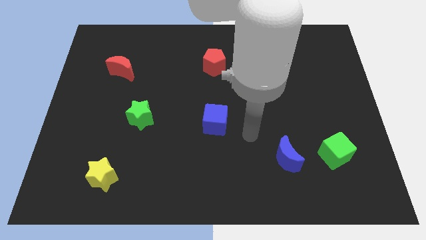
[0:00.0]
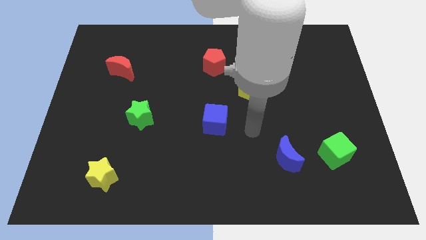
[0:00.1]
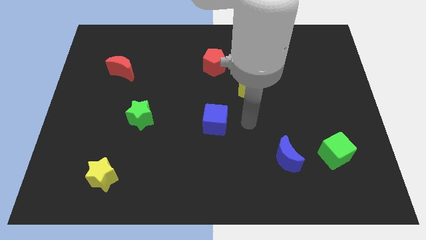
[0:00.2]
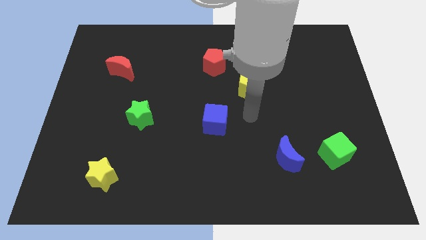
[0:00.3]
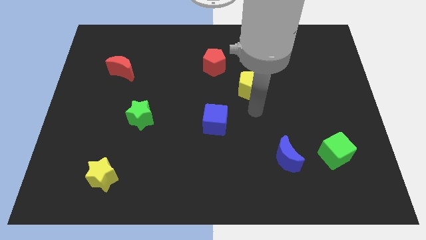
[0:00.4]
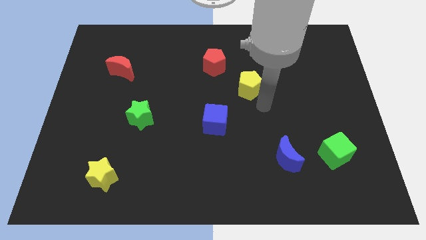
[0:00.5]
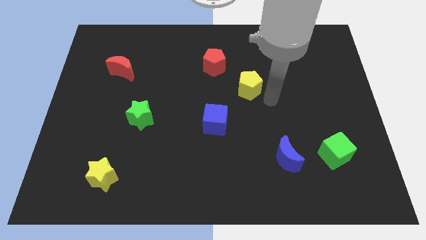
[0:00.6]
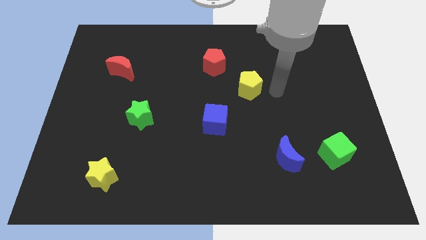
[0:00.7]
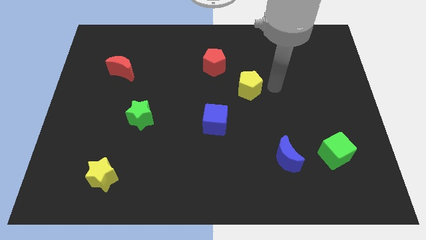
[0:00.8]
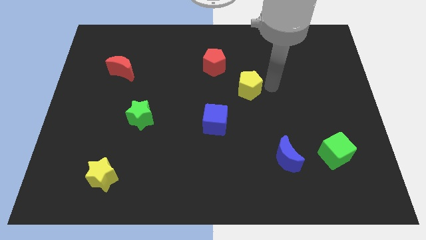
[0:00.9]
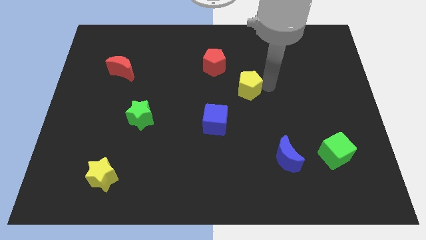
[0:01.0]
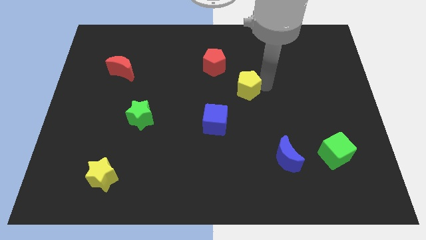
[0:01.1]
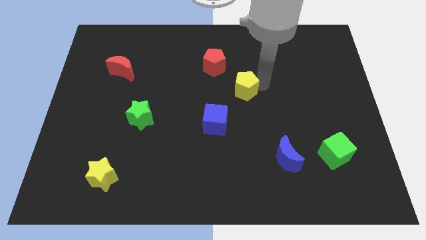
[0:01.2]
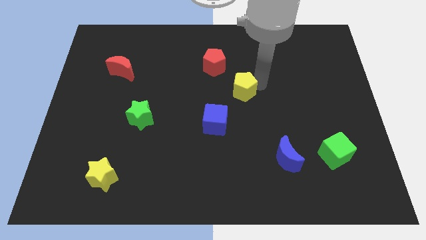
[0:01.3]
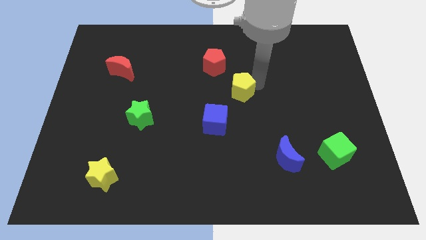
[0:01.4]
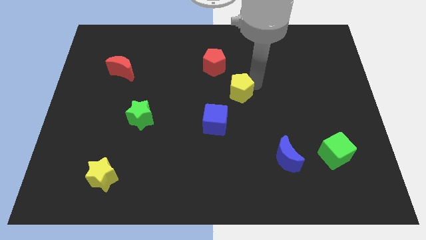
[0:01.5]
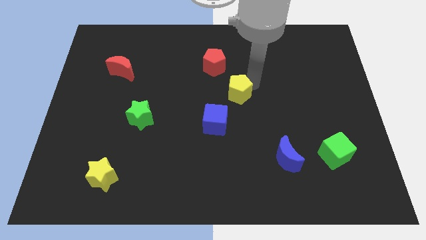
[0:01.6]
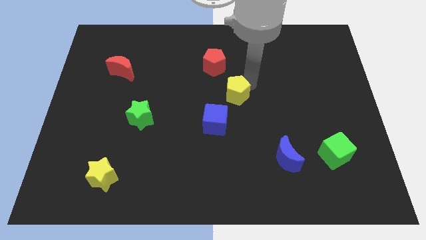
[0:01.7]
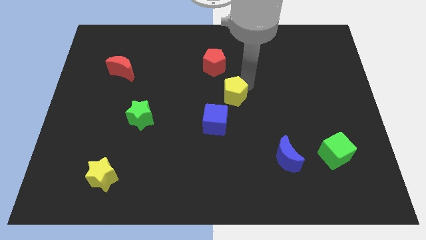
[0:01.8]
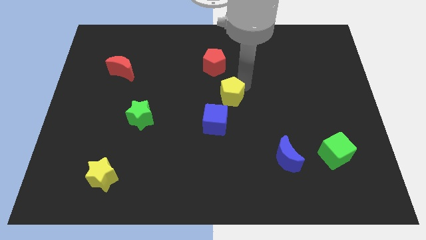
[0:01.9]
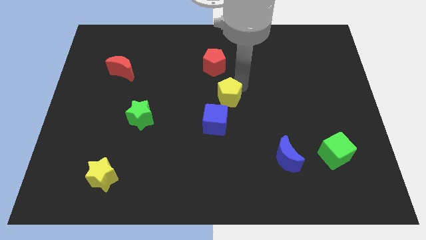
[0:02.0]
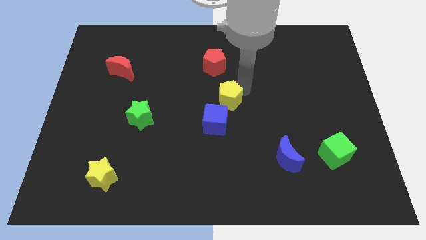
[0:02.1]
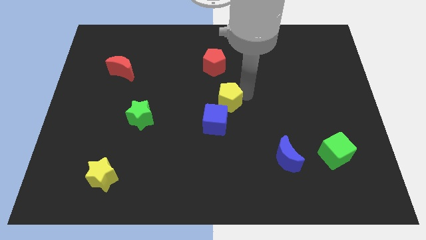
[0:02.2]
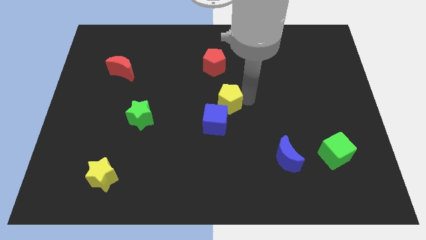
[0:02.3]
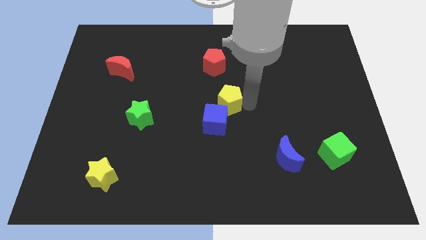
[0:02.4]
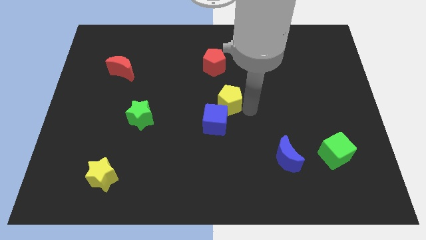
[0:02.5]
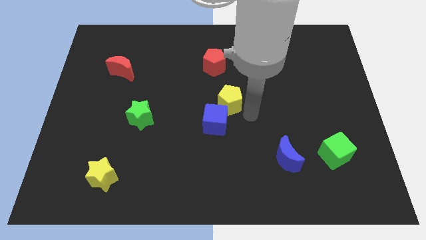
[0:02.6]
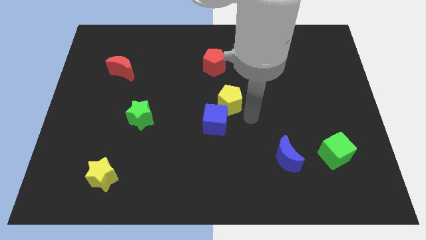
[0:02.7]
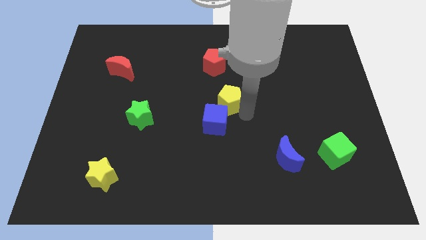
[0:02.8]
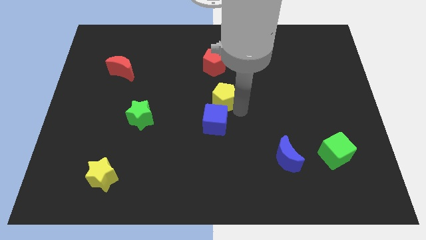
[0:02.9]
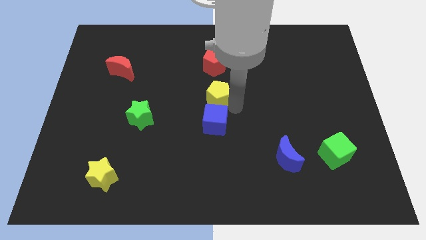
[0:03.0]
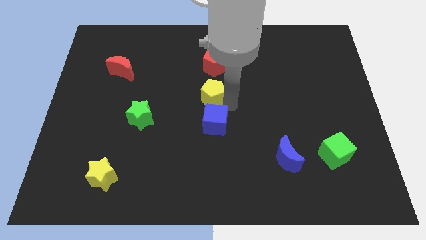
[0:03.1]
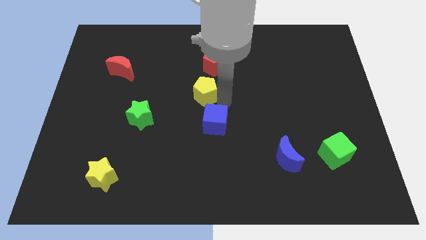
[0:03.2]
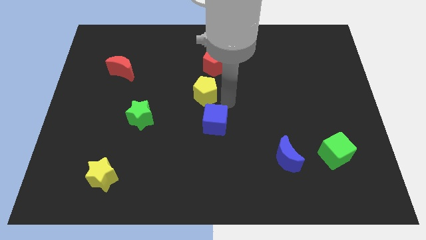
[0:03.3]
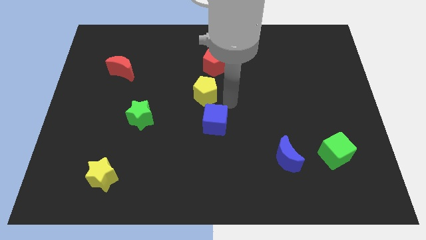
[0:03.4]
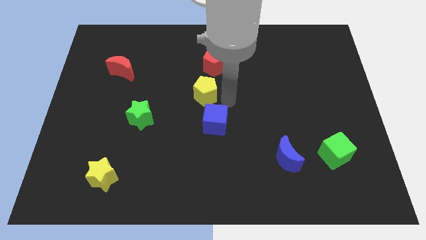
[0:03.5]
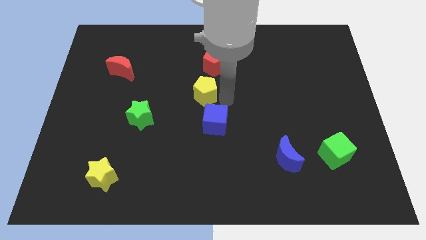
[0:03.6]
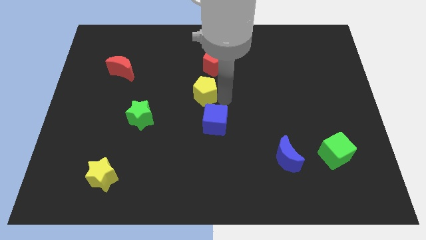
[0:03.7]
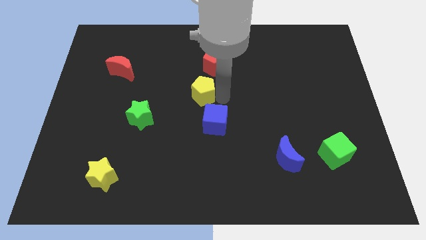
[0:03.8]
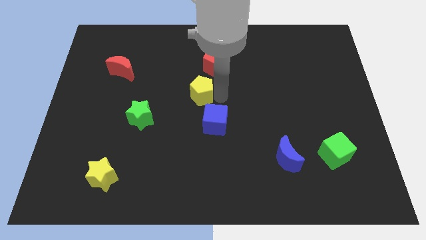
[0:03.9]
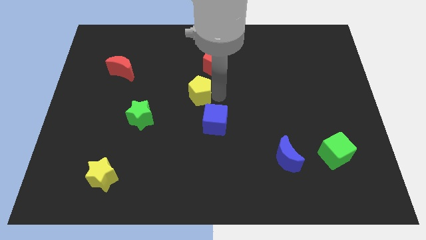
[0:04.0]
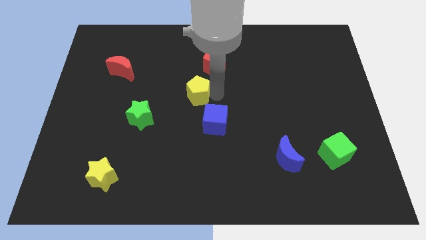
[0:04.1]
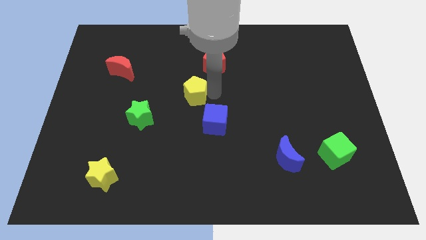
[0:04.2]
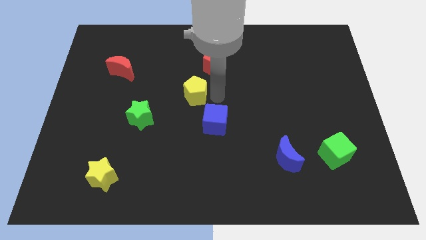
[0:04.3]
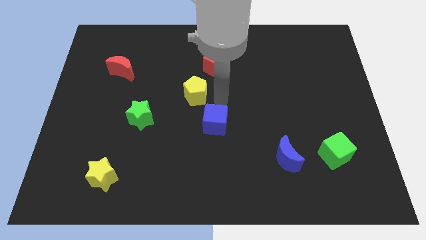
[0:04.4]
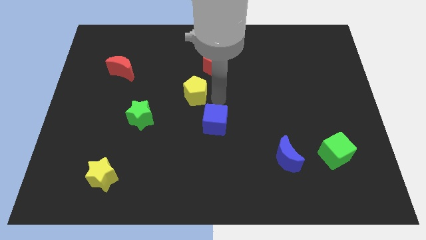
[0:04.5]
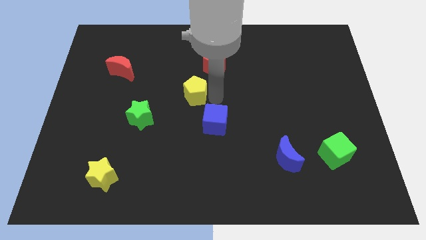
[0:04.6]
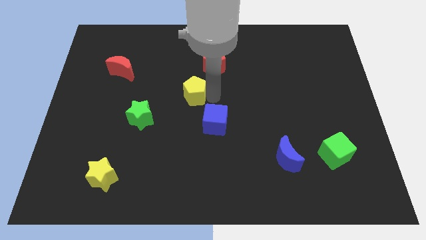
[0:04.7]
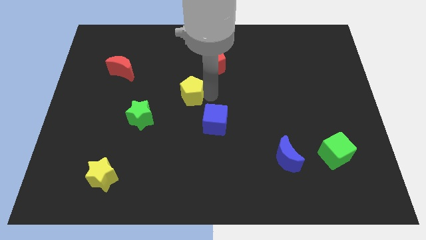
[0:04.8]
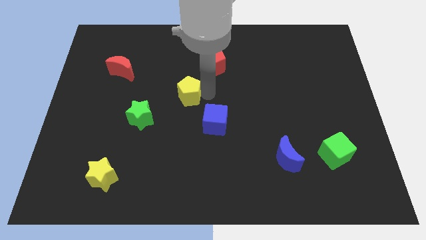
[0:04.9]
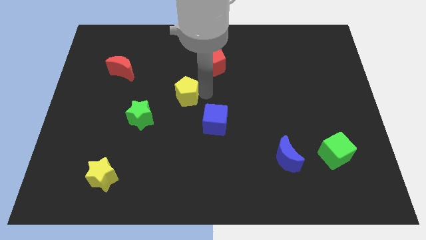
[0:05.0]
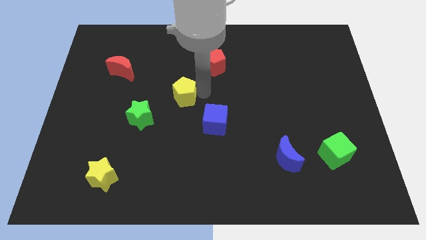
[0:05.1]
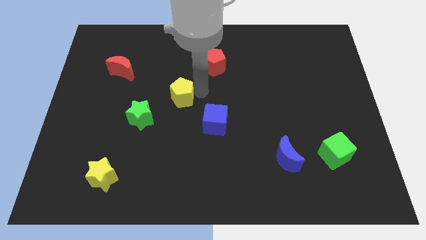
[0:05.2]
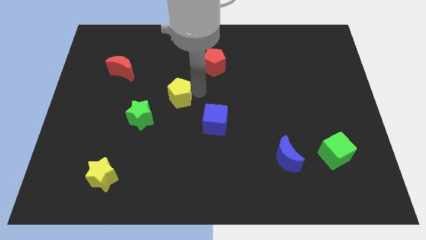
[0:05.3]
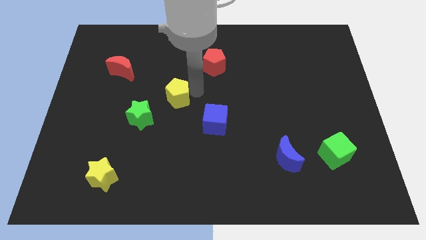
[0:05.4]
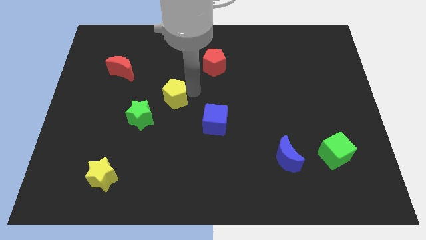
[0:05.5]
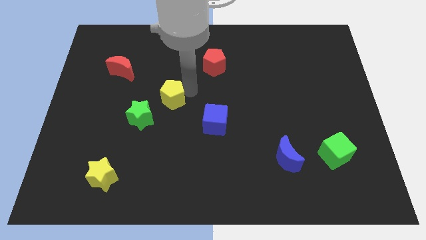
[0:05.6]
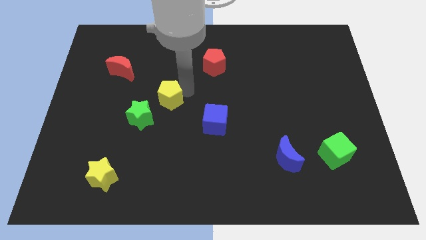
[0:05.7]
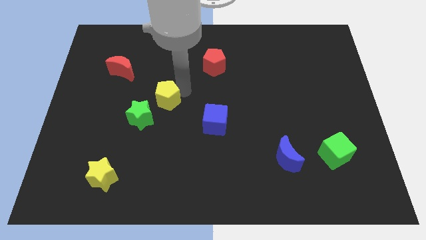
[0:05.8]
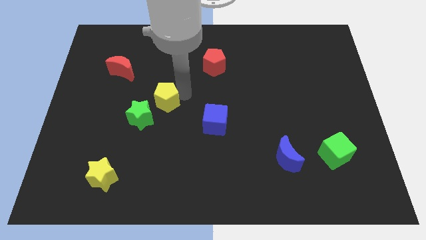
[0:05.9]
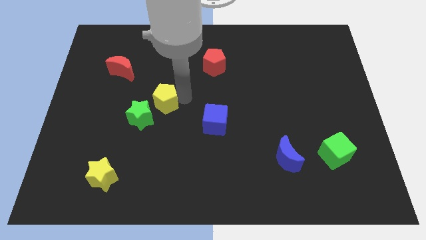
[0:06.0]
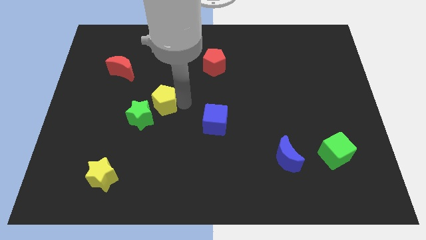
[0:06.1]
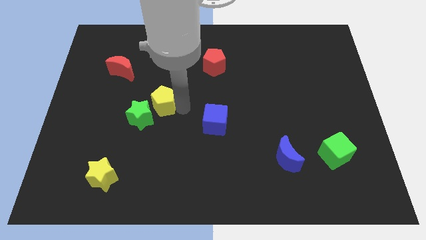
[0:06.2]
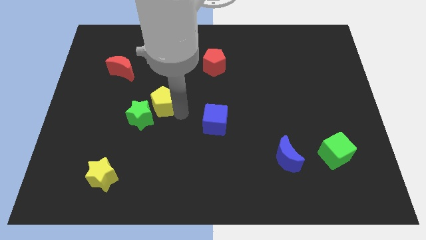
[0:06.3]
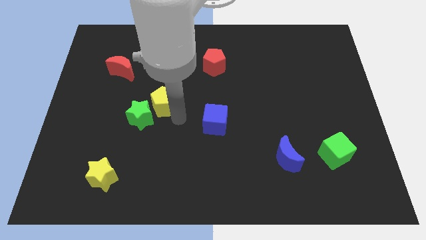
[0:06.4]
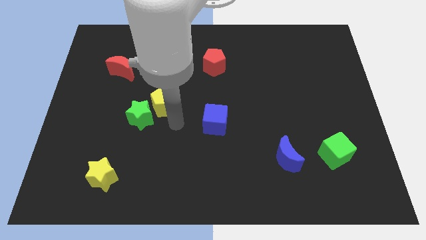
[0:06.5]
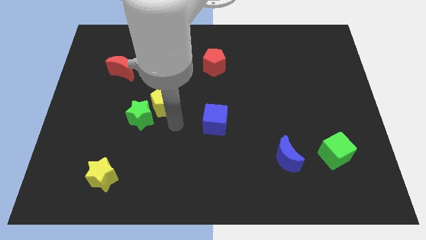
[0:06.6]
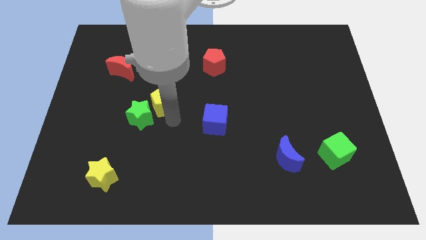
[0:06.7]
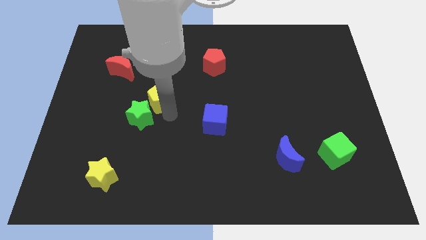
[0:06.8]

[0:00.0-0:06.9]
push the yellow pentagon left

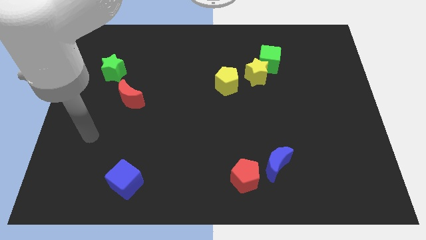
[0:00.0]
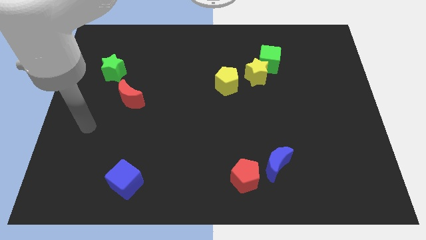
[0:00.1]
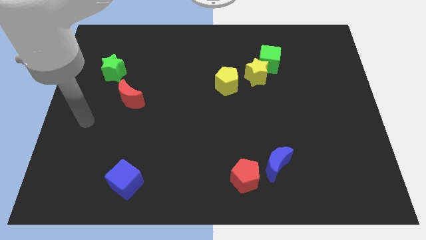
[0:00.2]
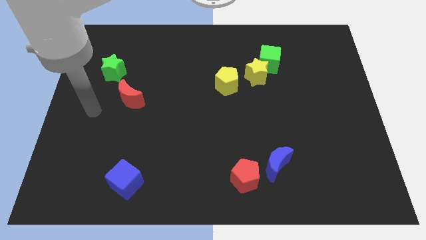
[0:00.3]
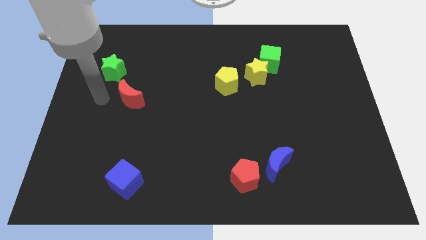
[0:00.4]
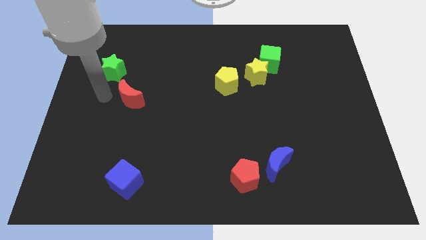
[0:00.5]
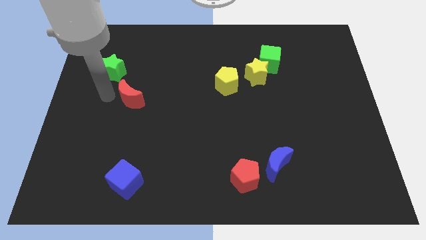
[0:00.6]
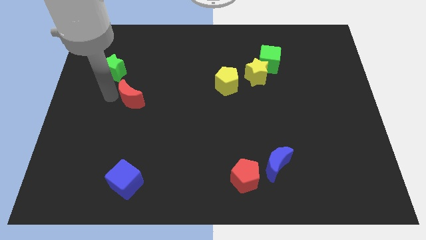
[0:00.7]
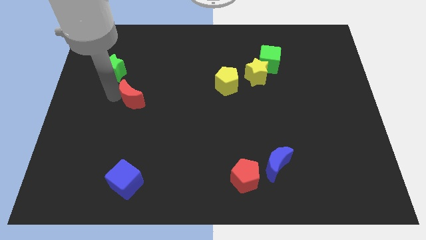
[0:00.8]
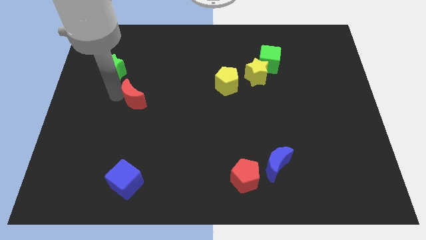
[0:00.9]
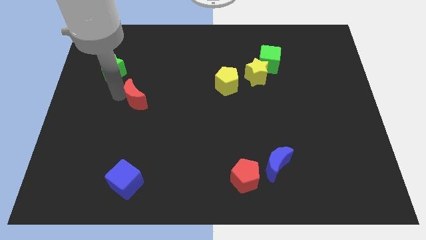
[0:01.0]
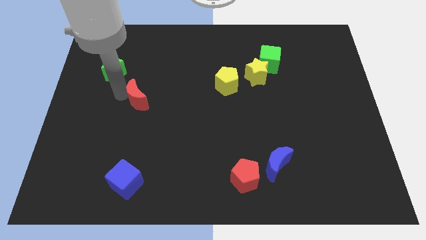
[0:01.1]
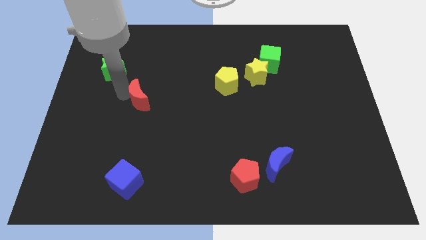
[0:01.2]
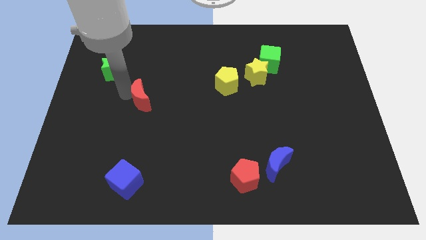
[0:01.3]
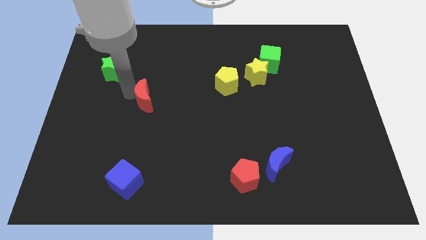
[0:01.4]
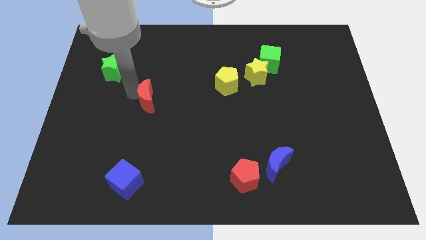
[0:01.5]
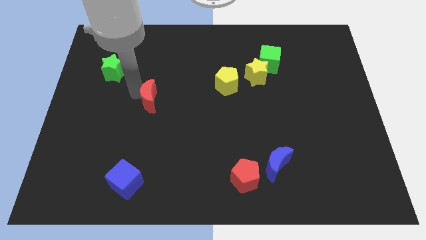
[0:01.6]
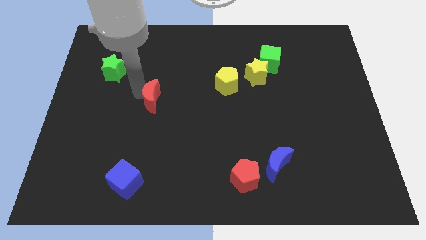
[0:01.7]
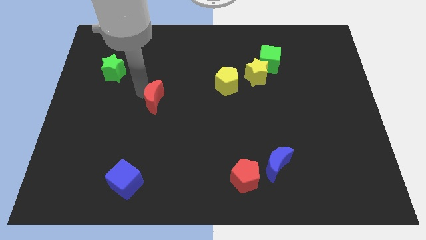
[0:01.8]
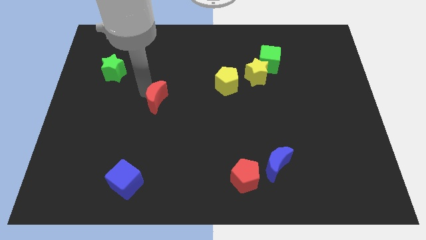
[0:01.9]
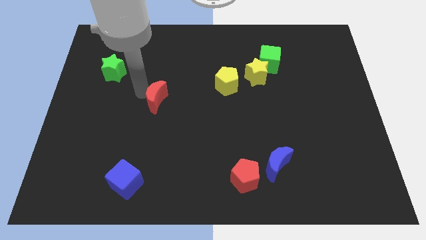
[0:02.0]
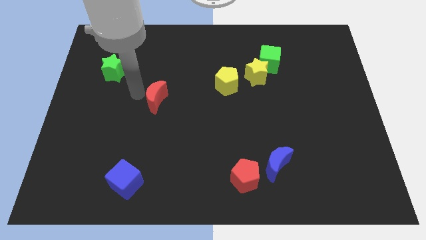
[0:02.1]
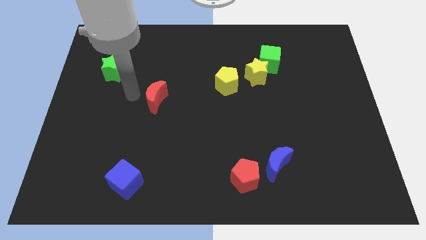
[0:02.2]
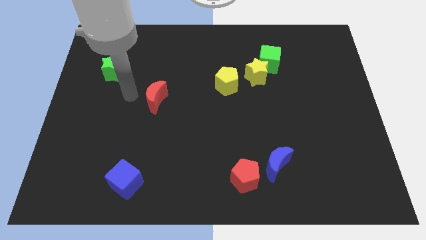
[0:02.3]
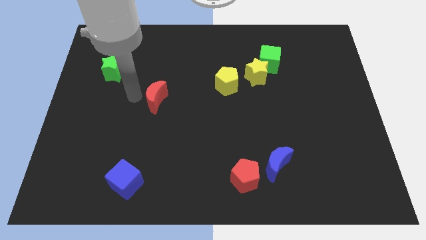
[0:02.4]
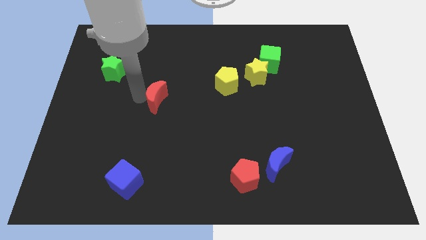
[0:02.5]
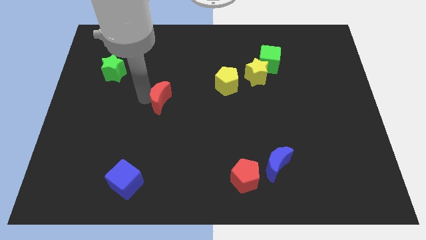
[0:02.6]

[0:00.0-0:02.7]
push the red moon a little bit to the right
